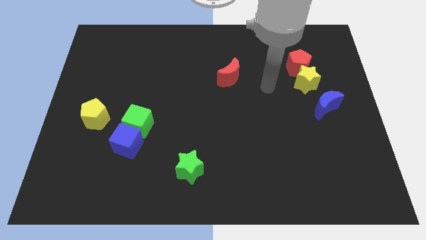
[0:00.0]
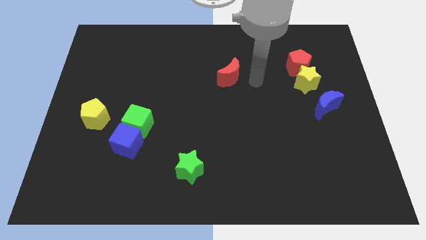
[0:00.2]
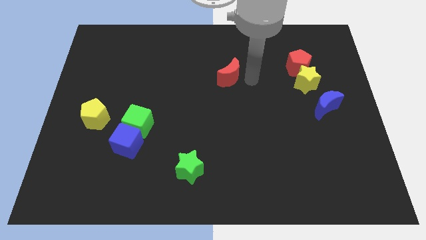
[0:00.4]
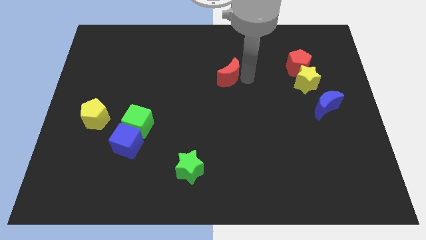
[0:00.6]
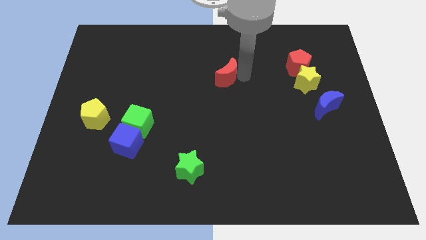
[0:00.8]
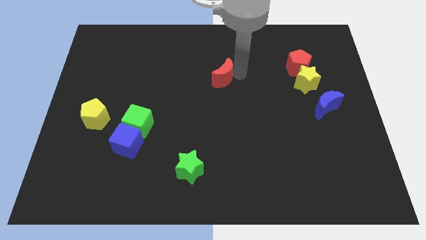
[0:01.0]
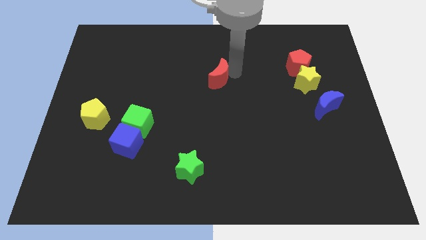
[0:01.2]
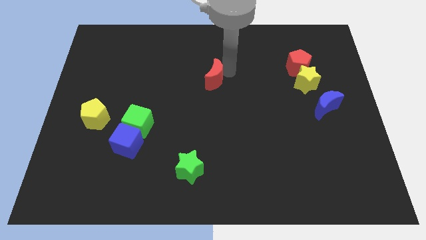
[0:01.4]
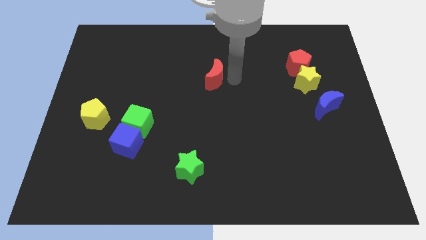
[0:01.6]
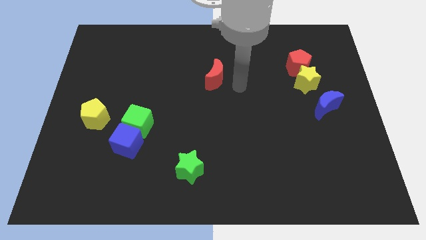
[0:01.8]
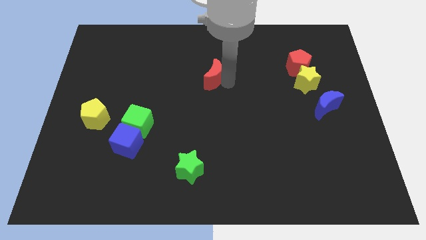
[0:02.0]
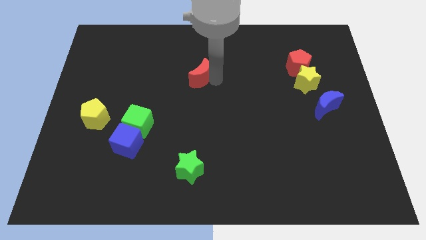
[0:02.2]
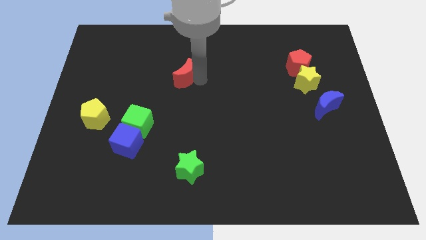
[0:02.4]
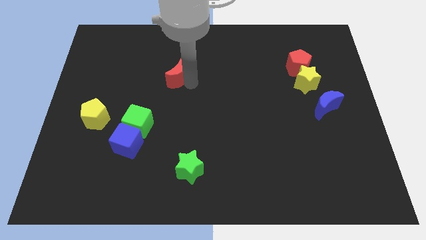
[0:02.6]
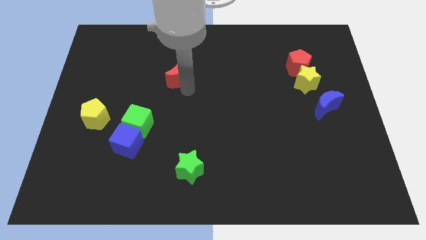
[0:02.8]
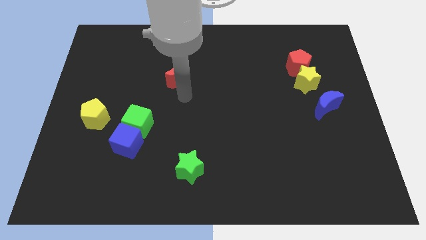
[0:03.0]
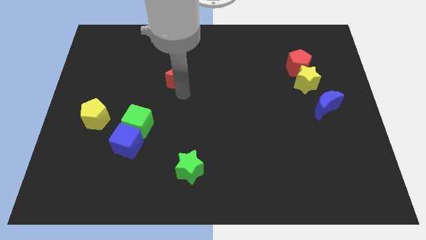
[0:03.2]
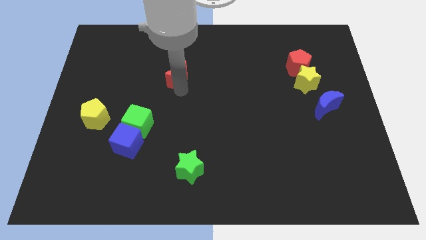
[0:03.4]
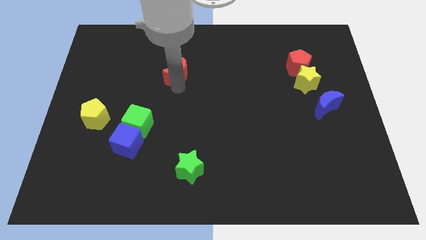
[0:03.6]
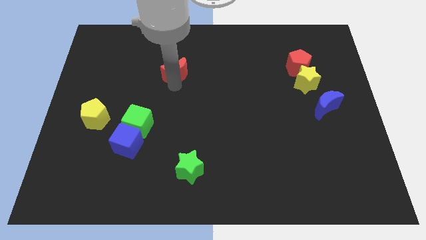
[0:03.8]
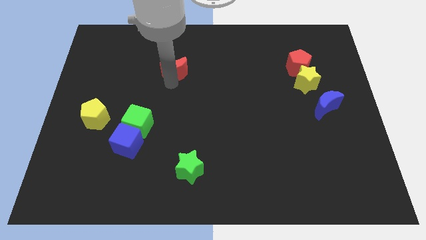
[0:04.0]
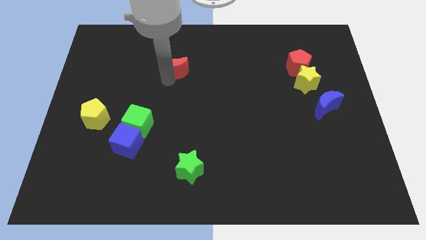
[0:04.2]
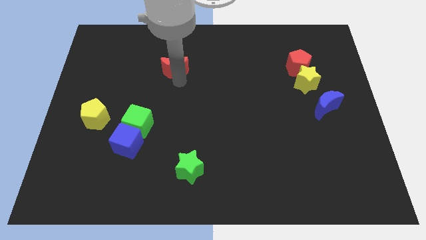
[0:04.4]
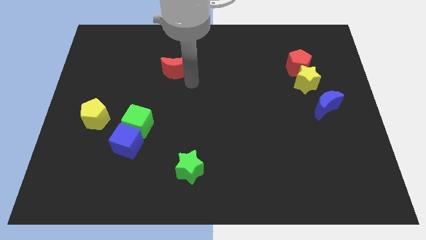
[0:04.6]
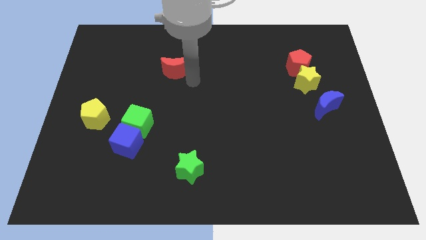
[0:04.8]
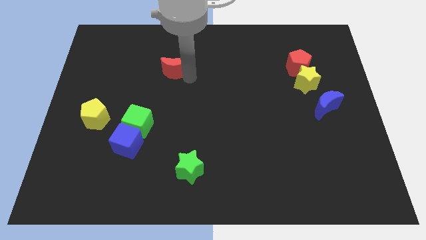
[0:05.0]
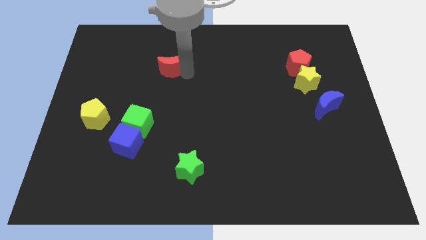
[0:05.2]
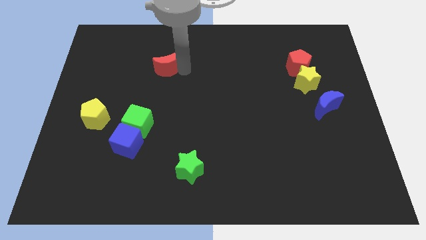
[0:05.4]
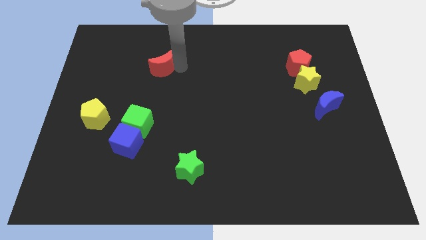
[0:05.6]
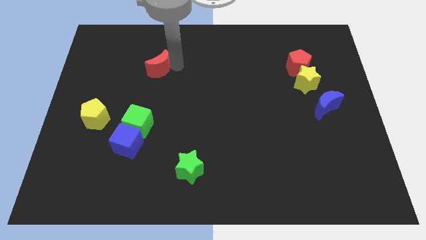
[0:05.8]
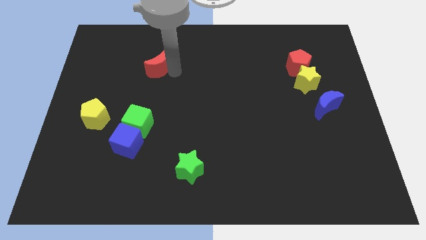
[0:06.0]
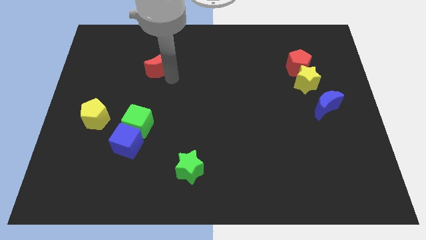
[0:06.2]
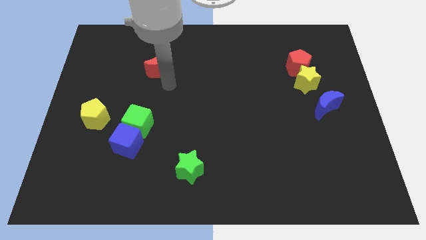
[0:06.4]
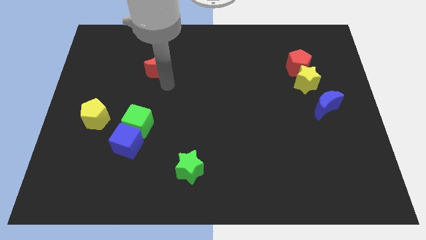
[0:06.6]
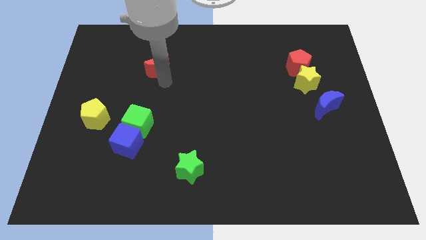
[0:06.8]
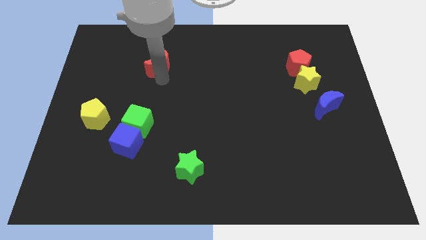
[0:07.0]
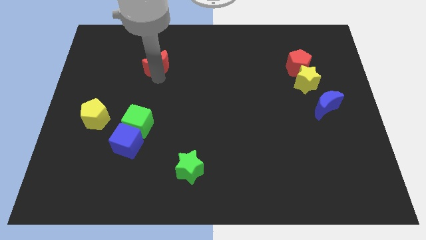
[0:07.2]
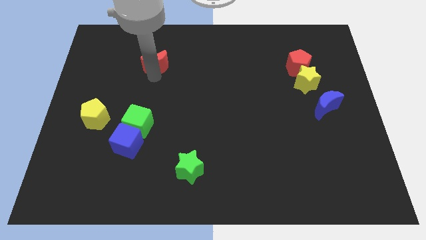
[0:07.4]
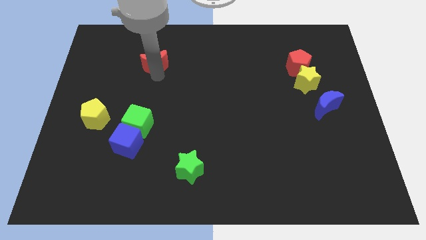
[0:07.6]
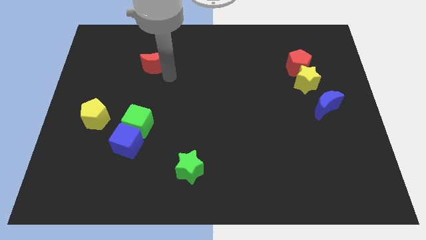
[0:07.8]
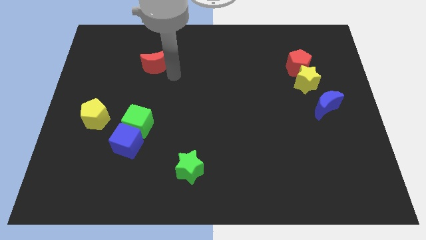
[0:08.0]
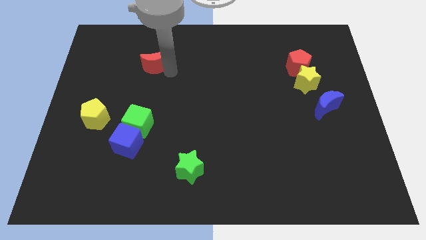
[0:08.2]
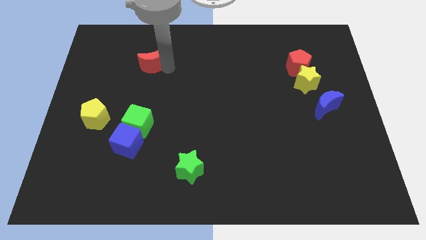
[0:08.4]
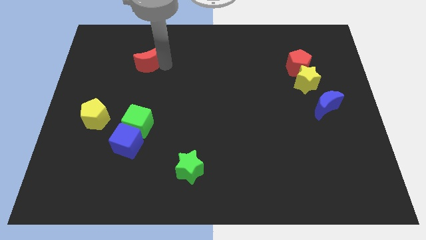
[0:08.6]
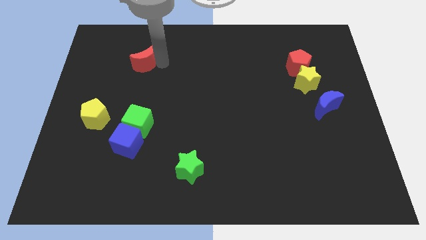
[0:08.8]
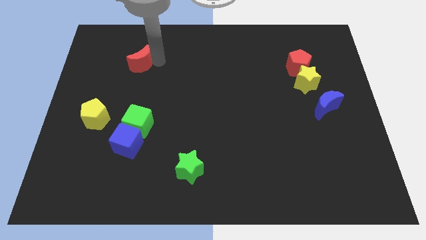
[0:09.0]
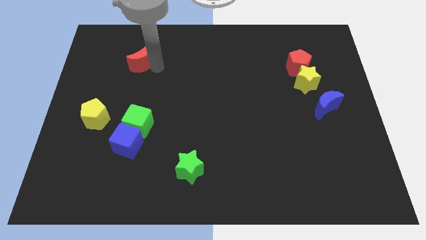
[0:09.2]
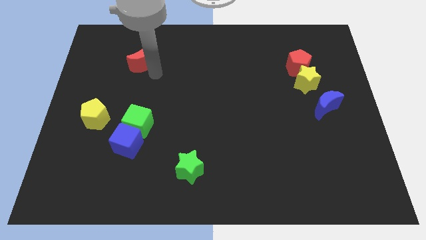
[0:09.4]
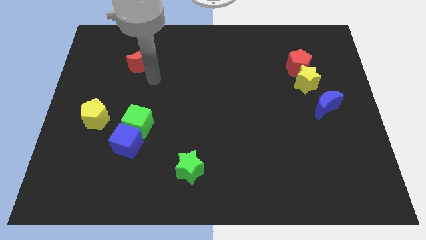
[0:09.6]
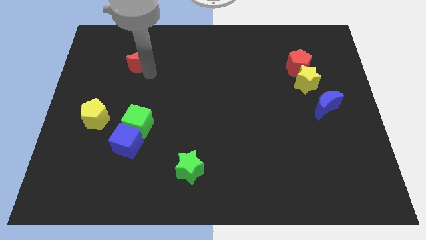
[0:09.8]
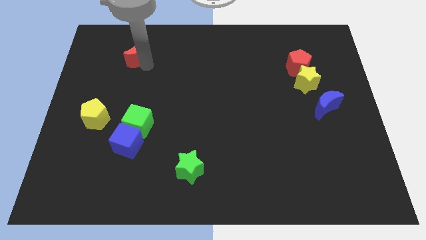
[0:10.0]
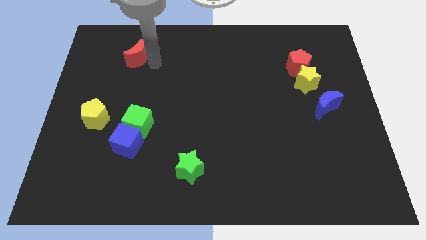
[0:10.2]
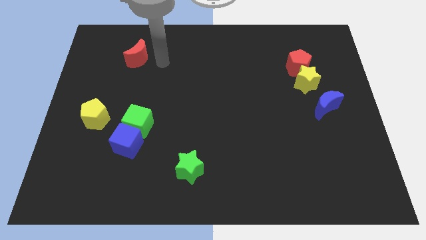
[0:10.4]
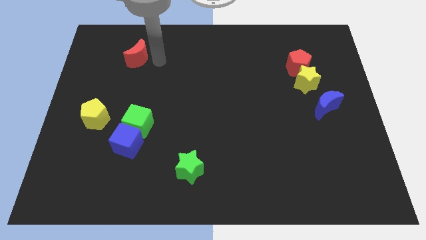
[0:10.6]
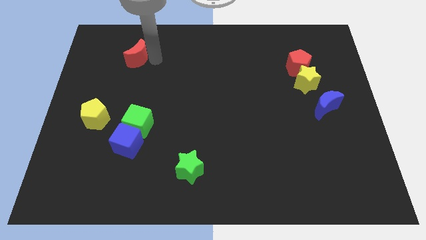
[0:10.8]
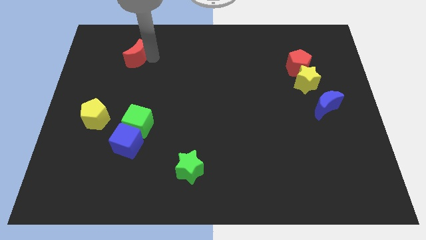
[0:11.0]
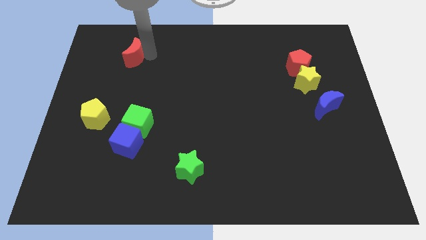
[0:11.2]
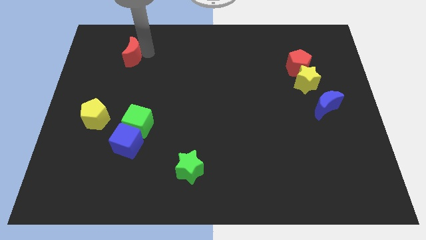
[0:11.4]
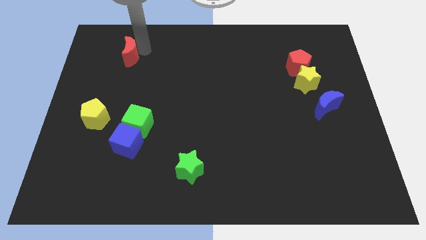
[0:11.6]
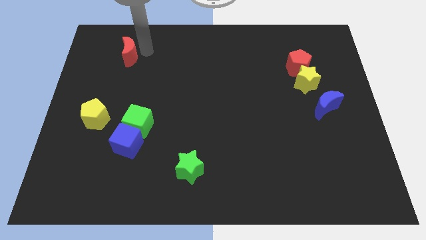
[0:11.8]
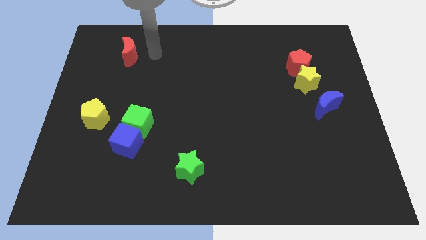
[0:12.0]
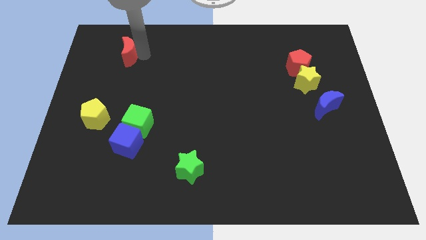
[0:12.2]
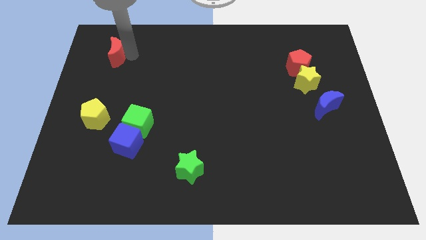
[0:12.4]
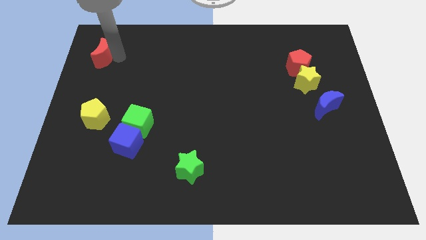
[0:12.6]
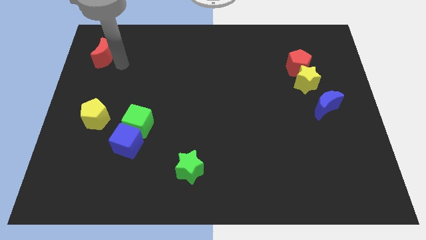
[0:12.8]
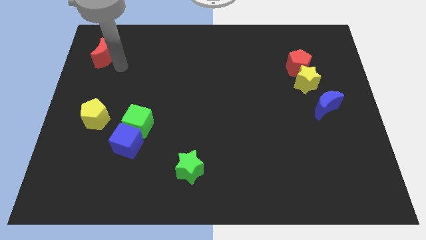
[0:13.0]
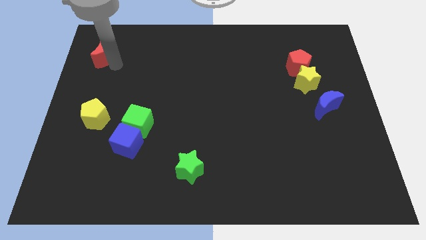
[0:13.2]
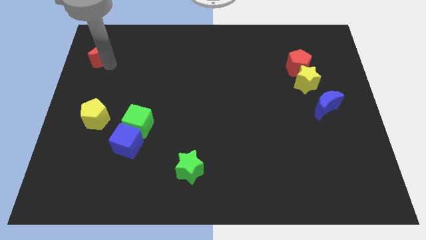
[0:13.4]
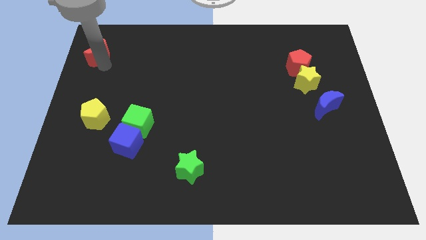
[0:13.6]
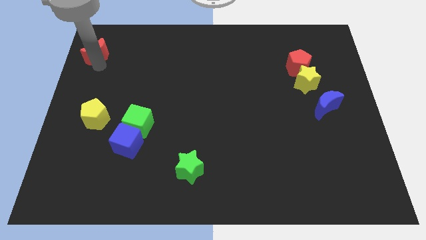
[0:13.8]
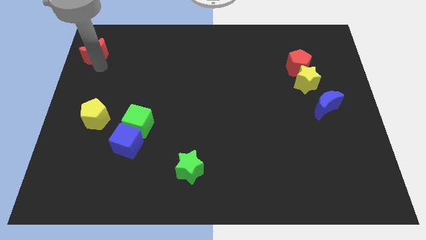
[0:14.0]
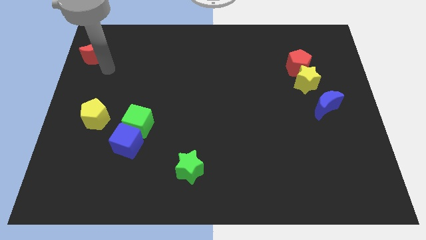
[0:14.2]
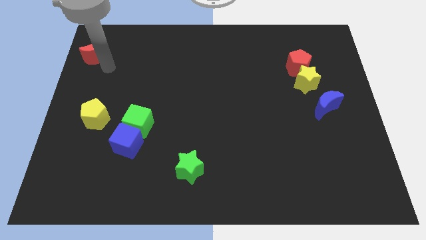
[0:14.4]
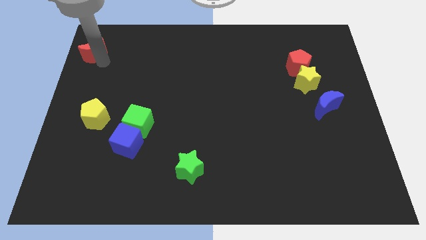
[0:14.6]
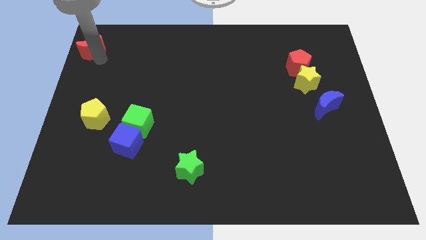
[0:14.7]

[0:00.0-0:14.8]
move the red moon to the top left of the board
